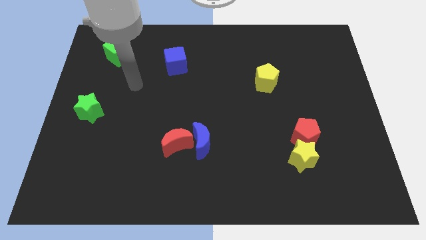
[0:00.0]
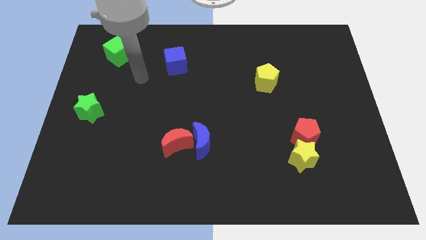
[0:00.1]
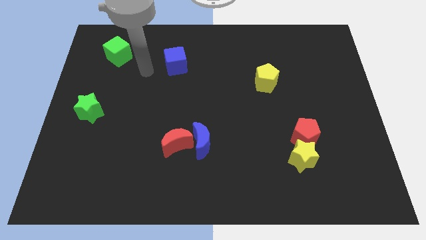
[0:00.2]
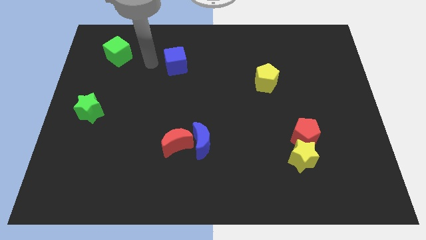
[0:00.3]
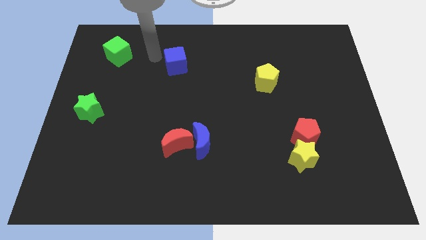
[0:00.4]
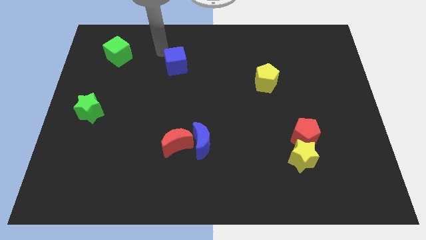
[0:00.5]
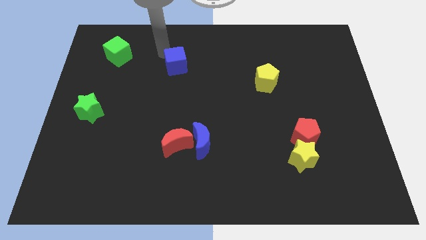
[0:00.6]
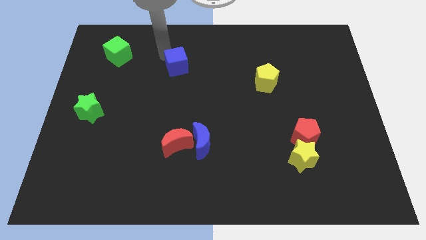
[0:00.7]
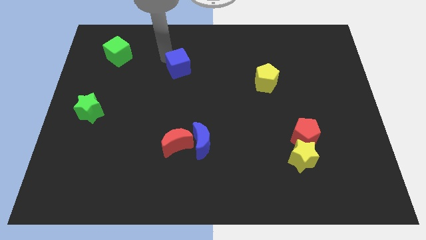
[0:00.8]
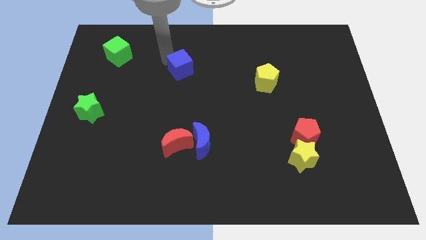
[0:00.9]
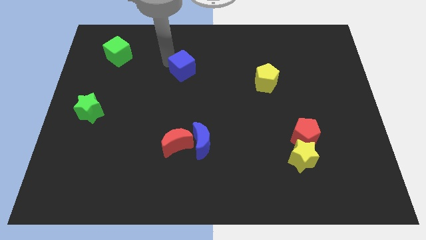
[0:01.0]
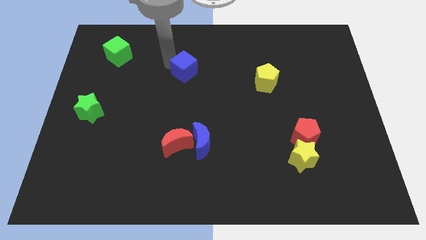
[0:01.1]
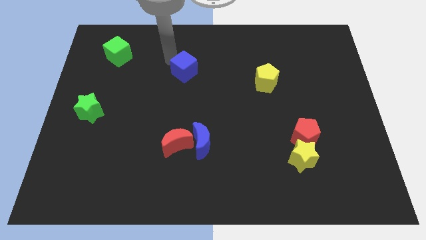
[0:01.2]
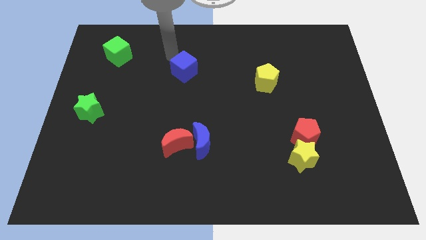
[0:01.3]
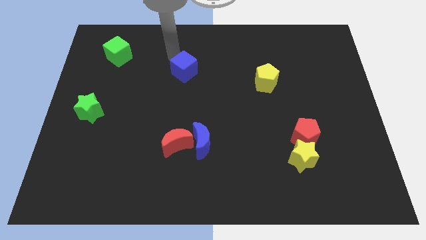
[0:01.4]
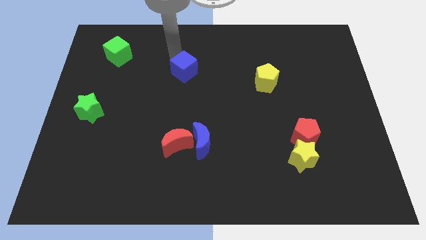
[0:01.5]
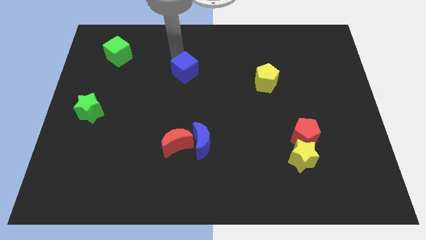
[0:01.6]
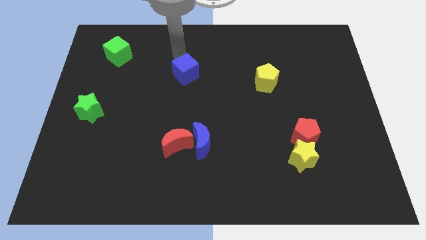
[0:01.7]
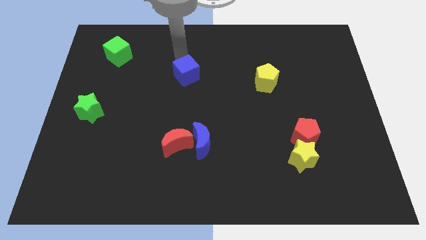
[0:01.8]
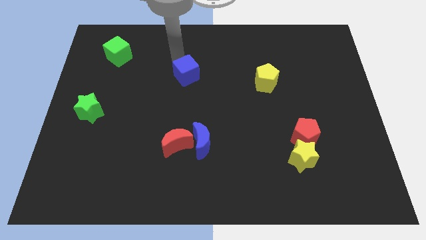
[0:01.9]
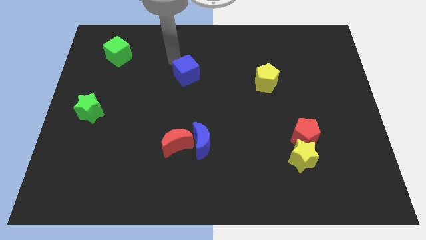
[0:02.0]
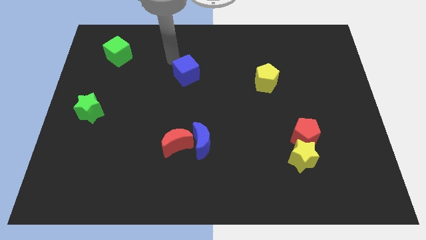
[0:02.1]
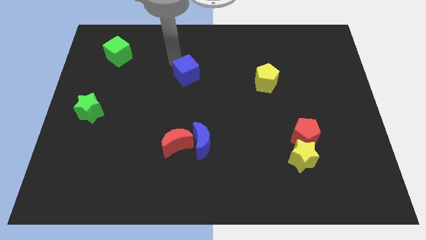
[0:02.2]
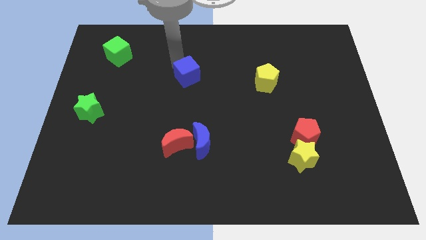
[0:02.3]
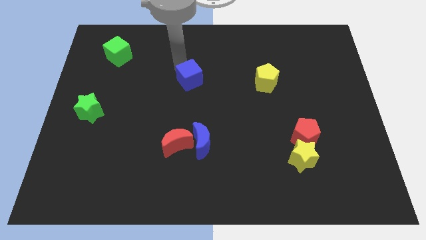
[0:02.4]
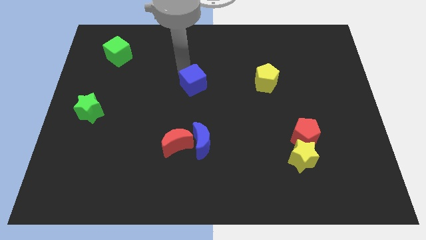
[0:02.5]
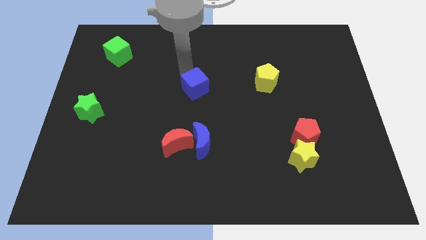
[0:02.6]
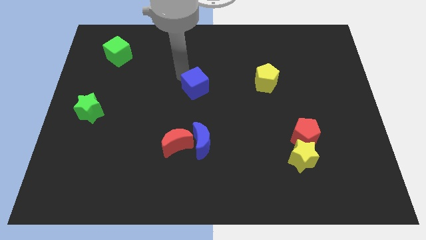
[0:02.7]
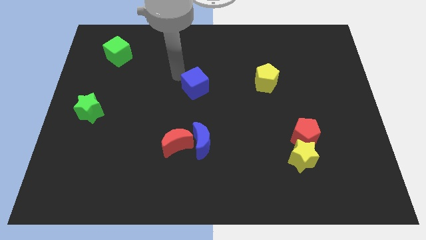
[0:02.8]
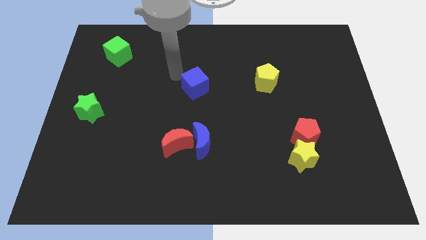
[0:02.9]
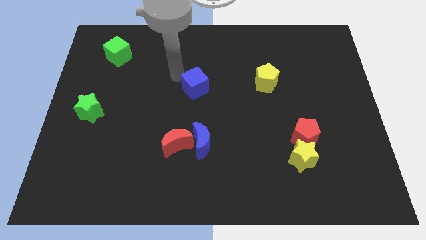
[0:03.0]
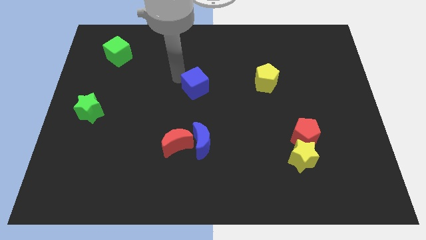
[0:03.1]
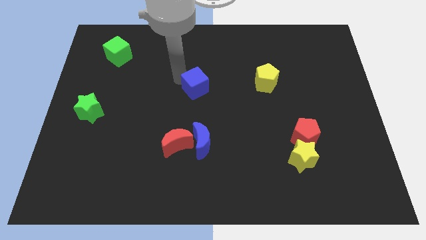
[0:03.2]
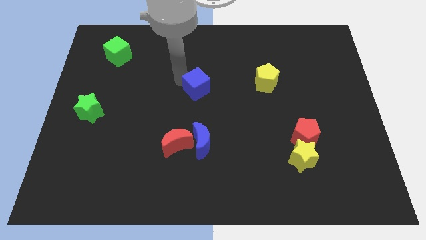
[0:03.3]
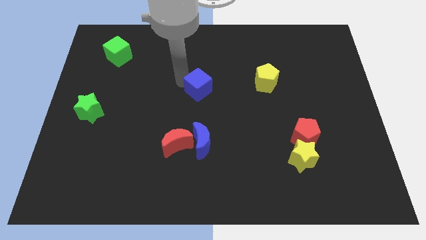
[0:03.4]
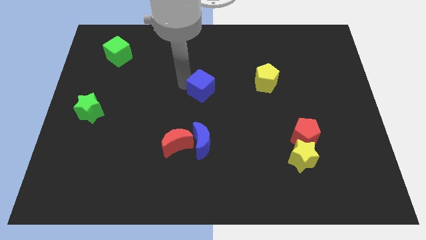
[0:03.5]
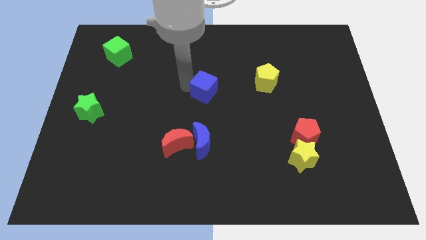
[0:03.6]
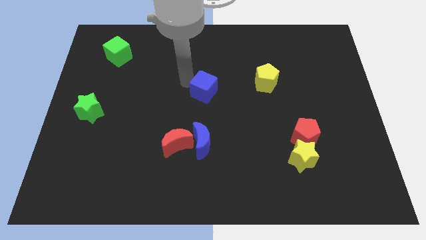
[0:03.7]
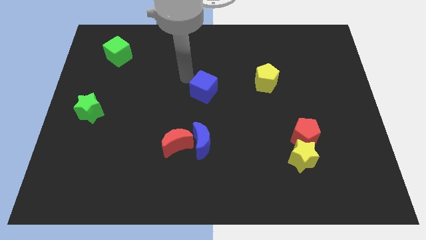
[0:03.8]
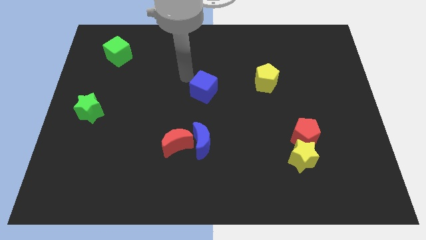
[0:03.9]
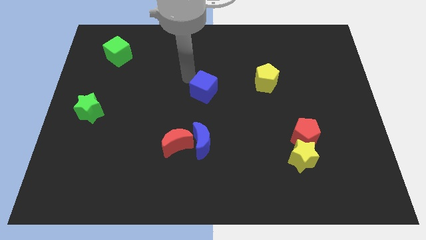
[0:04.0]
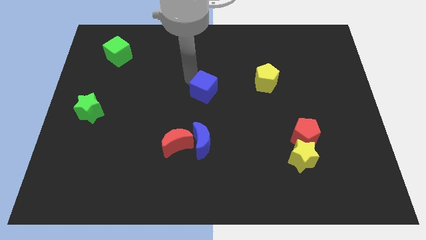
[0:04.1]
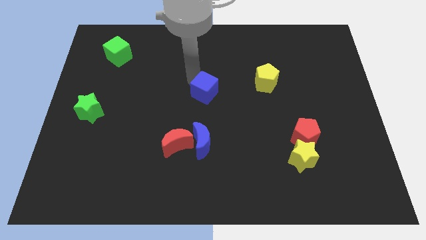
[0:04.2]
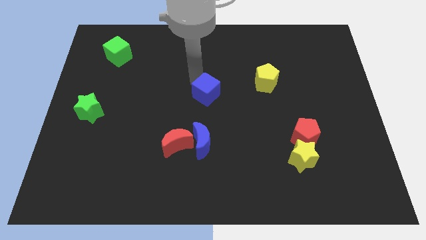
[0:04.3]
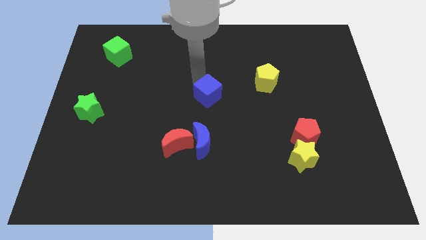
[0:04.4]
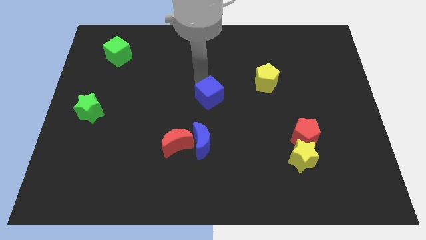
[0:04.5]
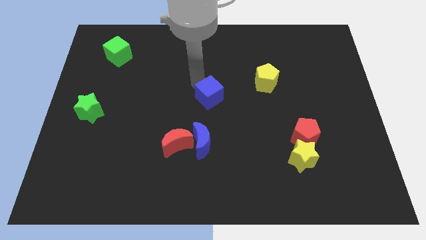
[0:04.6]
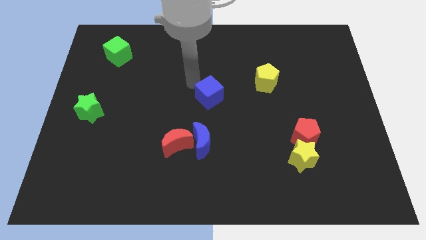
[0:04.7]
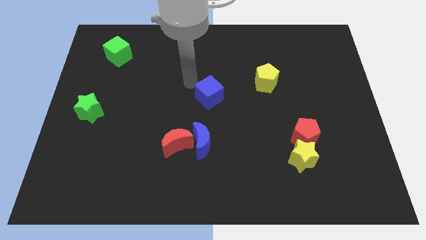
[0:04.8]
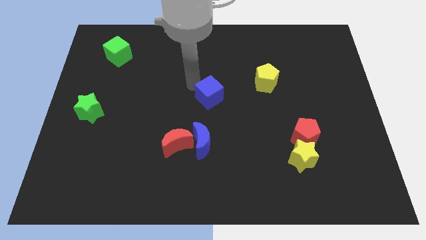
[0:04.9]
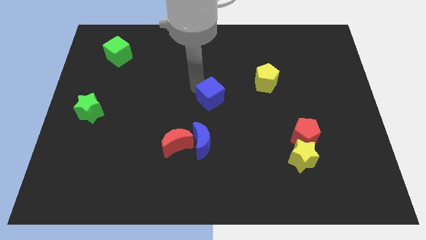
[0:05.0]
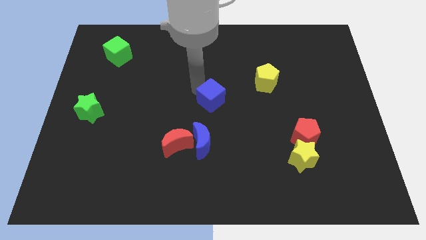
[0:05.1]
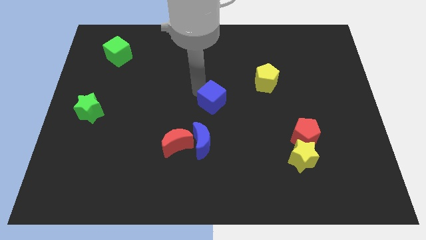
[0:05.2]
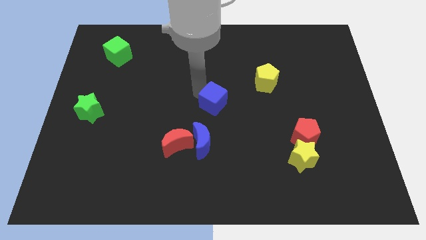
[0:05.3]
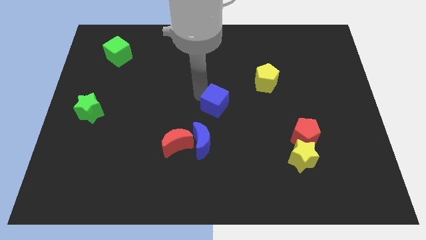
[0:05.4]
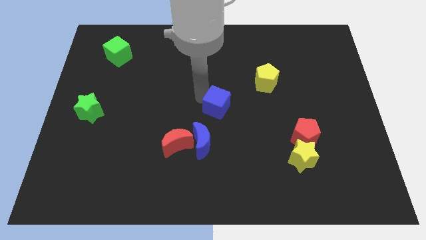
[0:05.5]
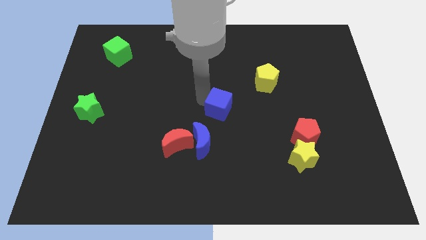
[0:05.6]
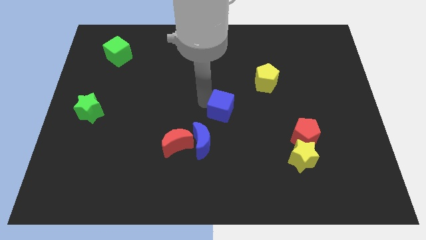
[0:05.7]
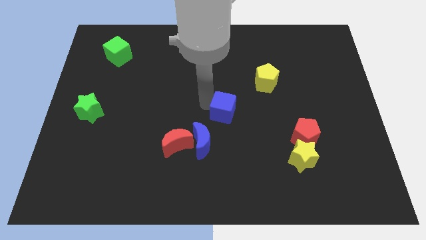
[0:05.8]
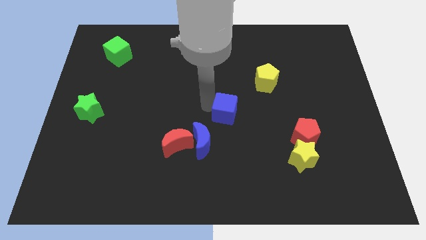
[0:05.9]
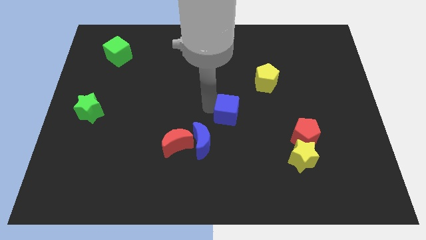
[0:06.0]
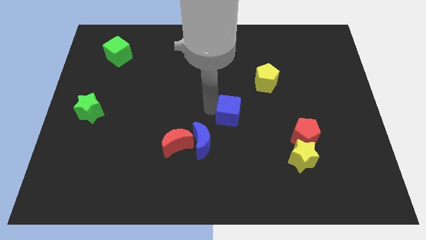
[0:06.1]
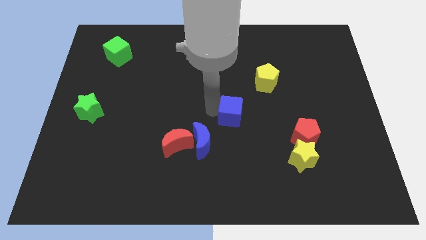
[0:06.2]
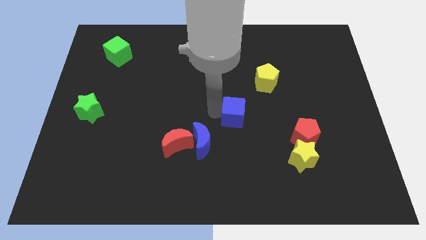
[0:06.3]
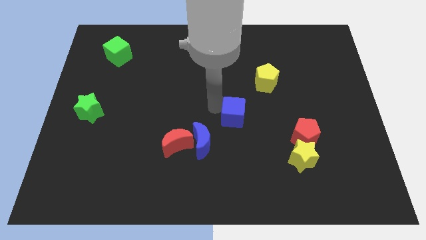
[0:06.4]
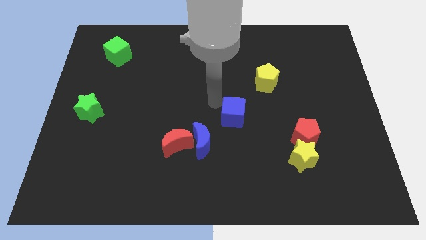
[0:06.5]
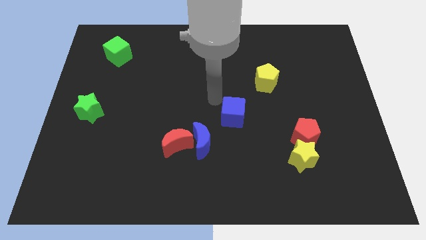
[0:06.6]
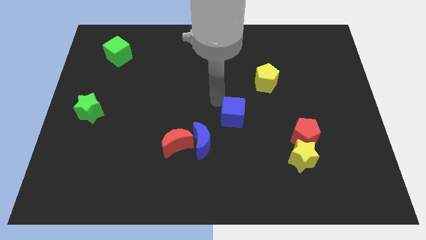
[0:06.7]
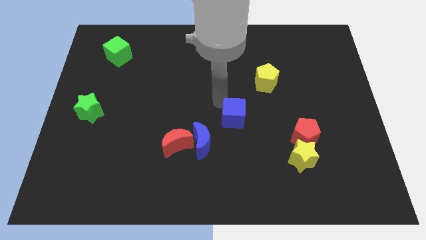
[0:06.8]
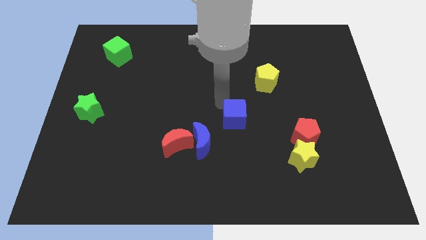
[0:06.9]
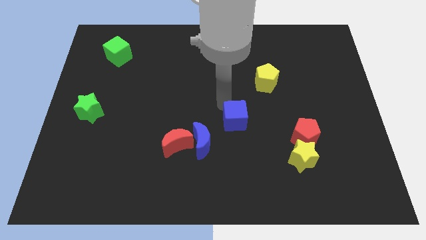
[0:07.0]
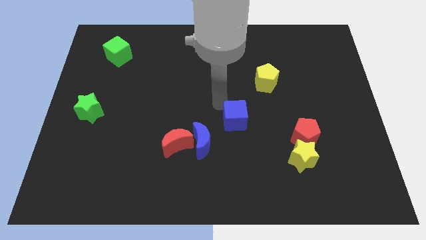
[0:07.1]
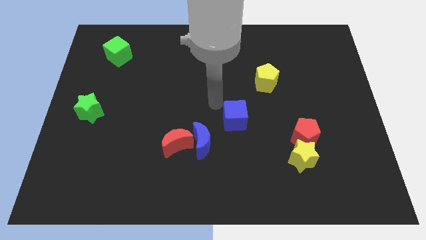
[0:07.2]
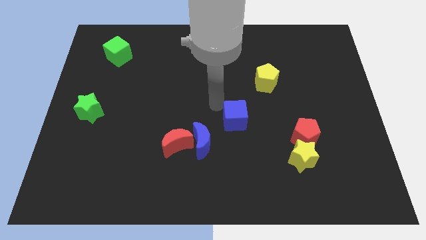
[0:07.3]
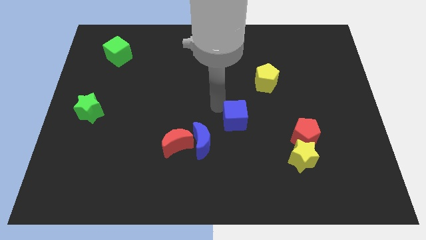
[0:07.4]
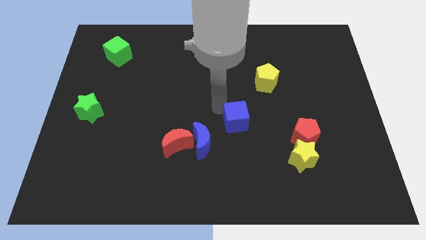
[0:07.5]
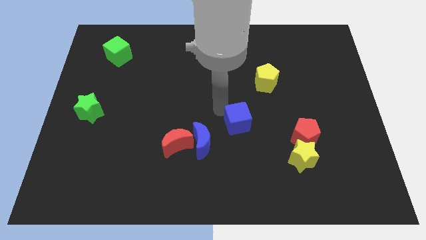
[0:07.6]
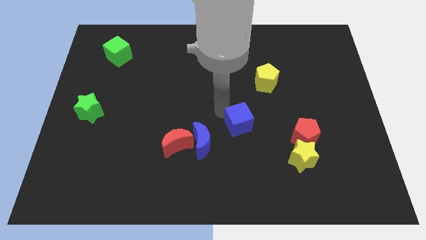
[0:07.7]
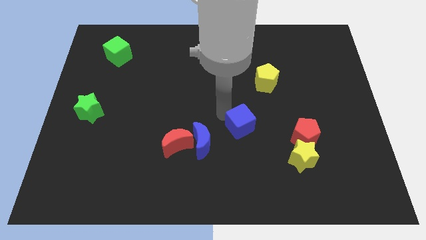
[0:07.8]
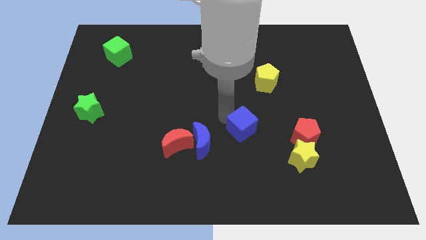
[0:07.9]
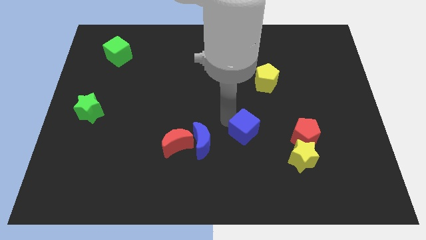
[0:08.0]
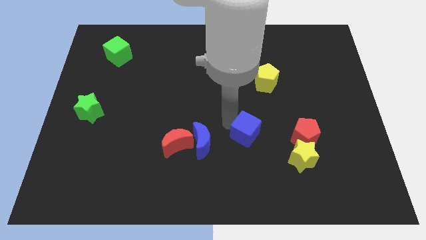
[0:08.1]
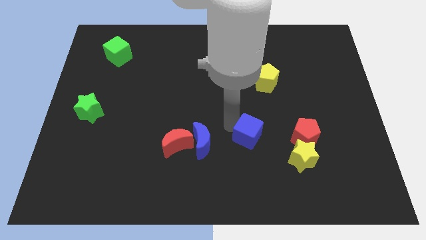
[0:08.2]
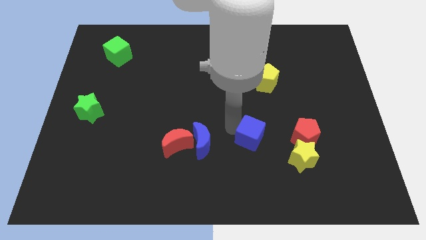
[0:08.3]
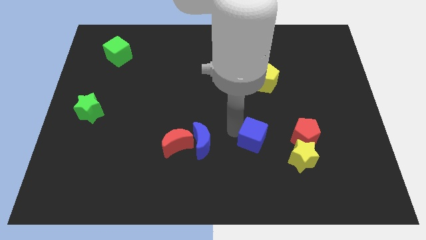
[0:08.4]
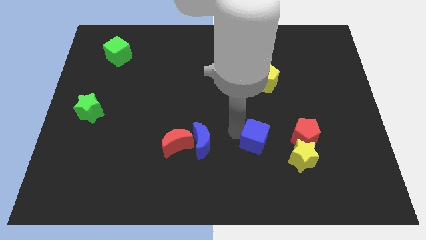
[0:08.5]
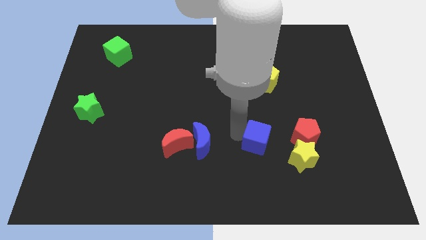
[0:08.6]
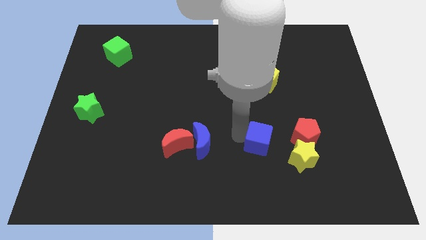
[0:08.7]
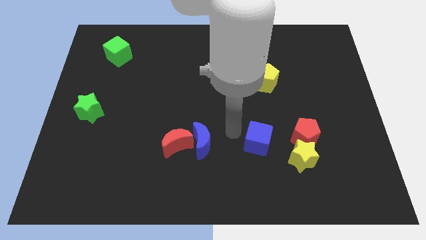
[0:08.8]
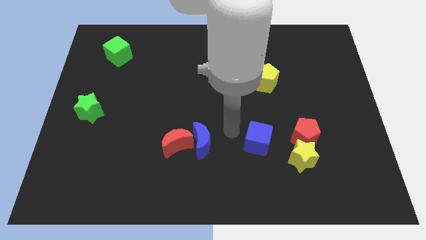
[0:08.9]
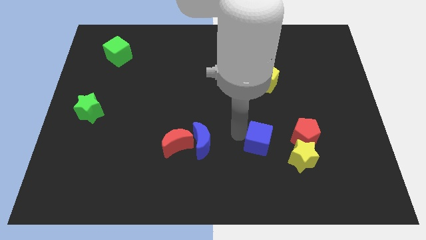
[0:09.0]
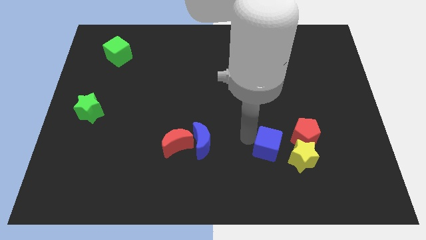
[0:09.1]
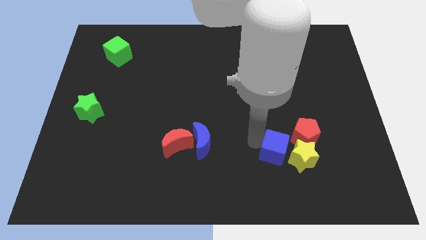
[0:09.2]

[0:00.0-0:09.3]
move the blue cube close to the yellow star
